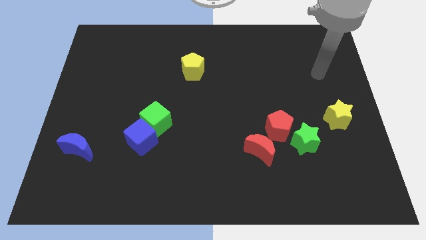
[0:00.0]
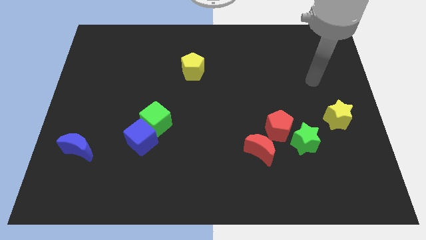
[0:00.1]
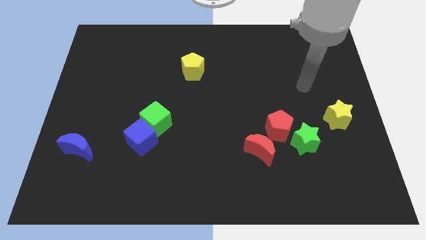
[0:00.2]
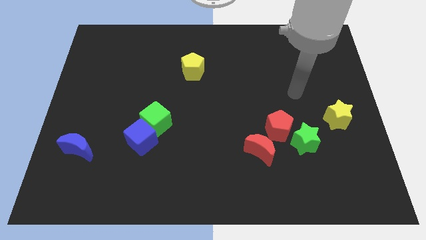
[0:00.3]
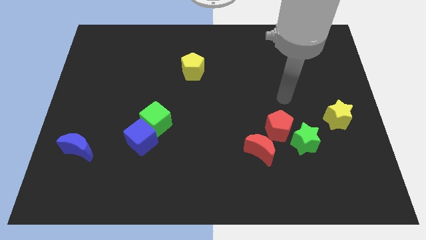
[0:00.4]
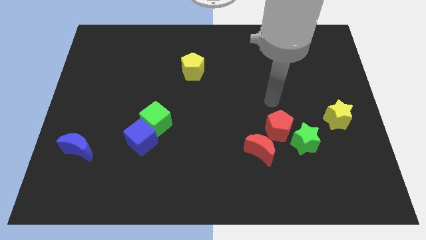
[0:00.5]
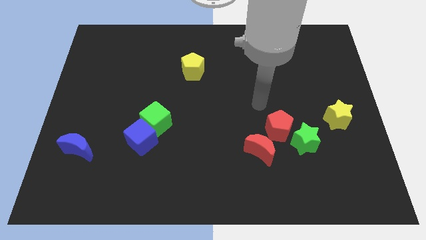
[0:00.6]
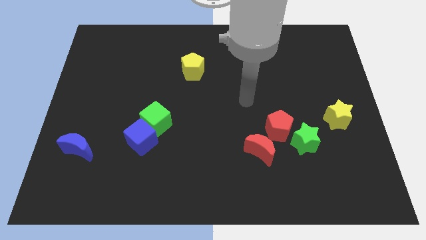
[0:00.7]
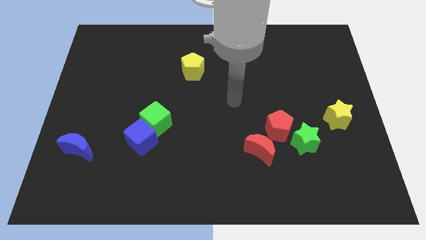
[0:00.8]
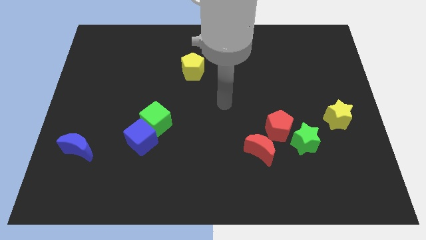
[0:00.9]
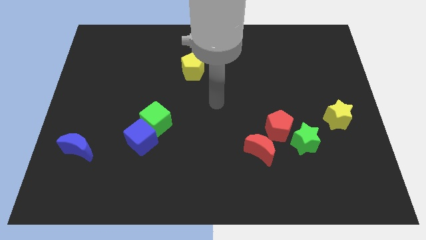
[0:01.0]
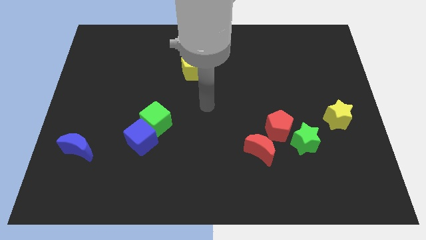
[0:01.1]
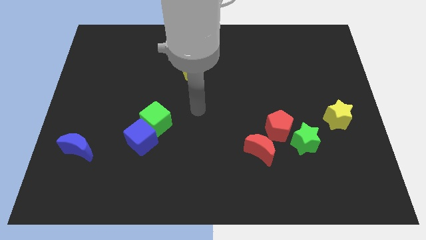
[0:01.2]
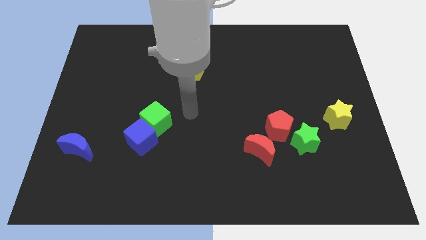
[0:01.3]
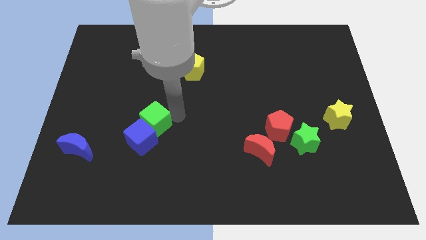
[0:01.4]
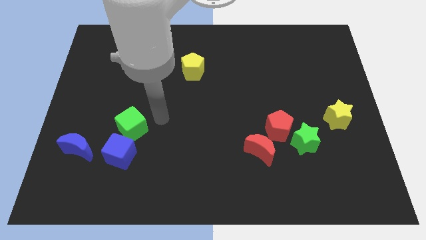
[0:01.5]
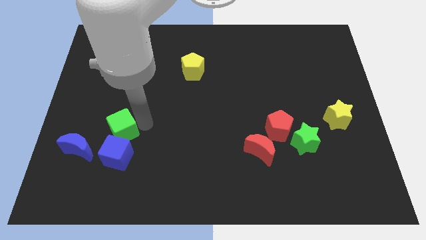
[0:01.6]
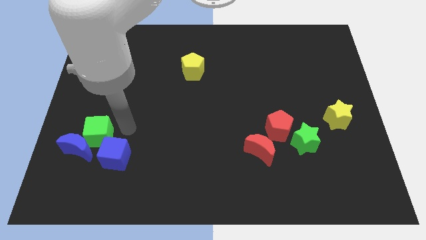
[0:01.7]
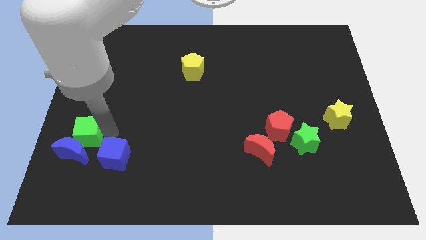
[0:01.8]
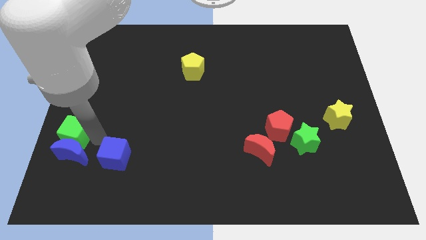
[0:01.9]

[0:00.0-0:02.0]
separate the blue cube from the green cube

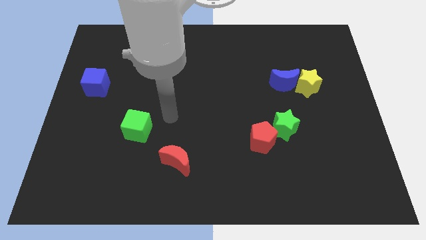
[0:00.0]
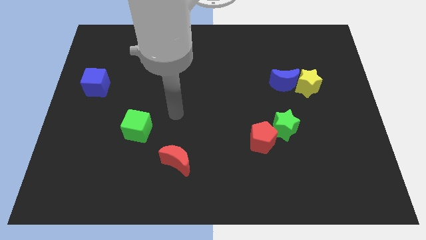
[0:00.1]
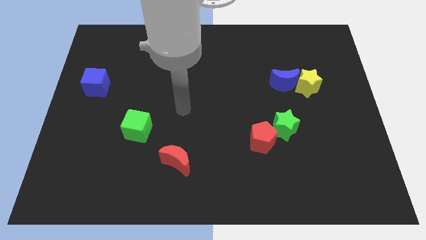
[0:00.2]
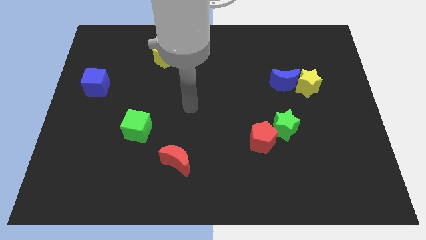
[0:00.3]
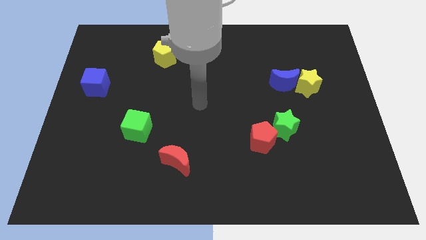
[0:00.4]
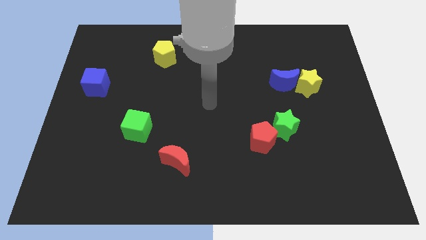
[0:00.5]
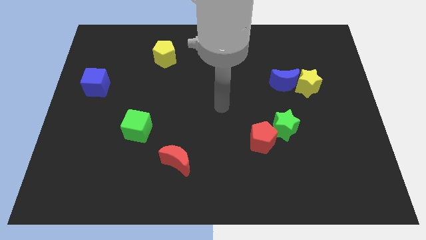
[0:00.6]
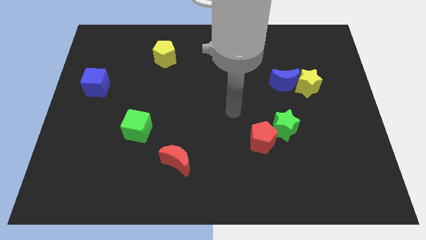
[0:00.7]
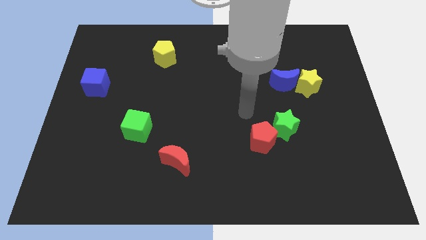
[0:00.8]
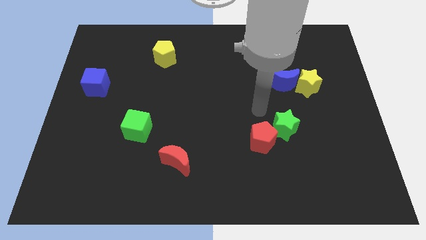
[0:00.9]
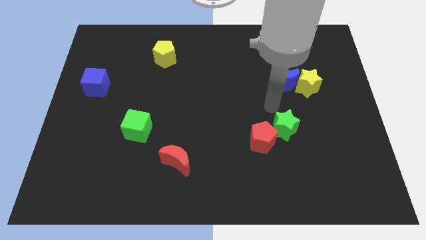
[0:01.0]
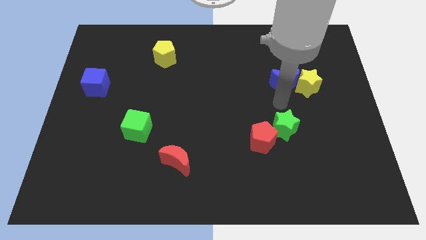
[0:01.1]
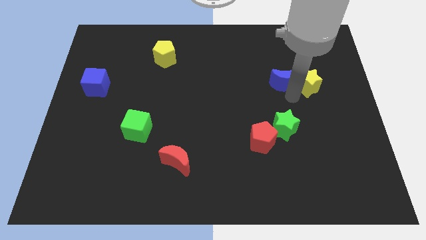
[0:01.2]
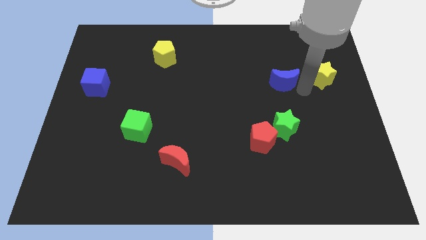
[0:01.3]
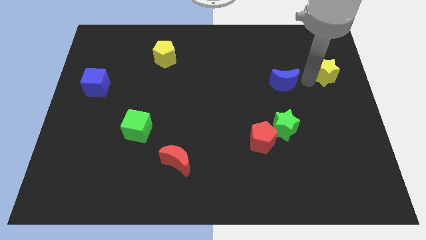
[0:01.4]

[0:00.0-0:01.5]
move the blue moon away from the yellow star

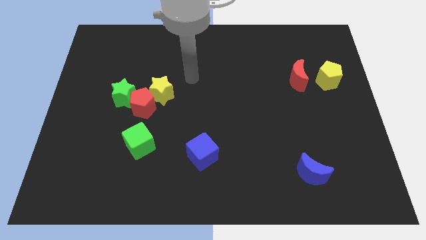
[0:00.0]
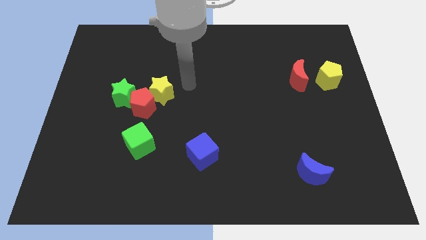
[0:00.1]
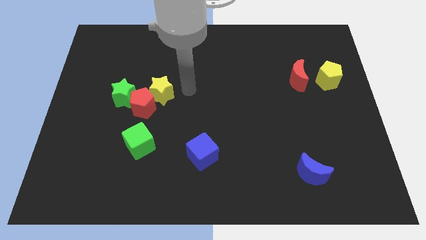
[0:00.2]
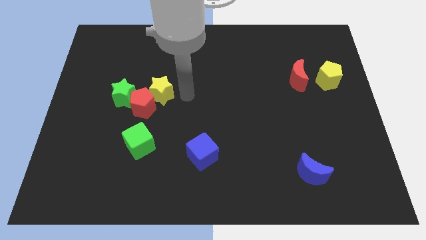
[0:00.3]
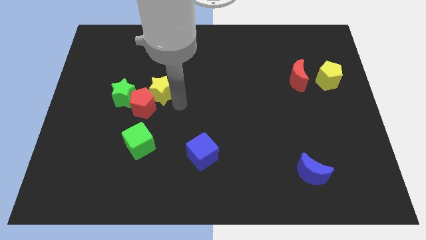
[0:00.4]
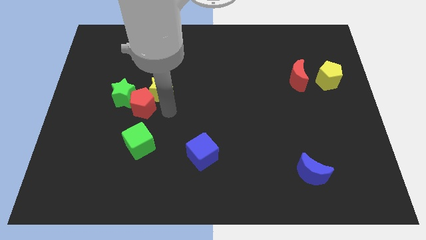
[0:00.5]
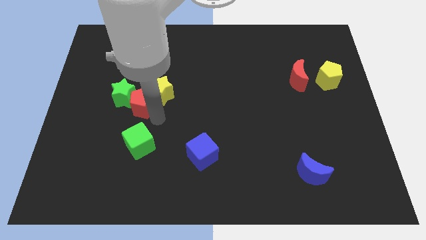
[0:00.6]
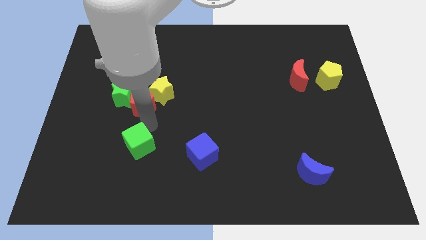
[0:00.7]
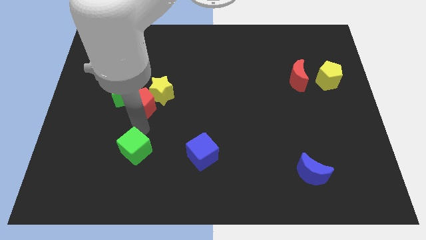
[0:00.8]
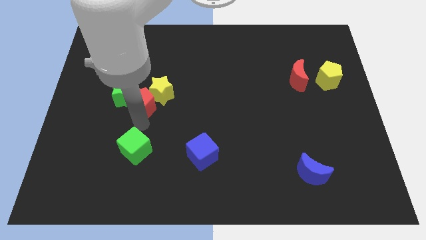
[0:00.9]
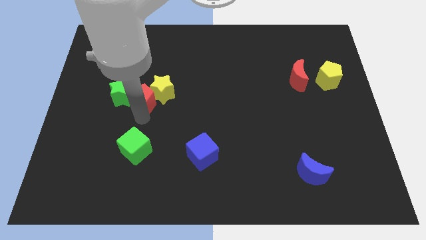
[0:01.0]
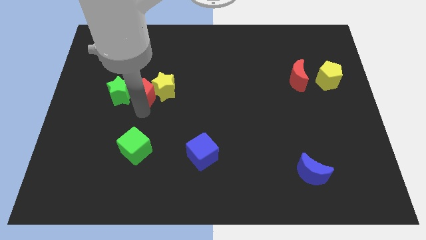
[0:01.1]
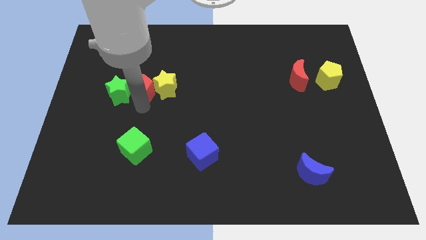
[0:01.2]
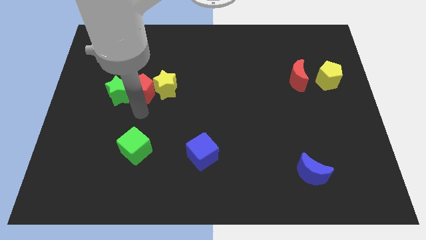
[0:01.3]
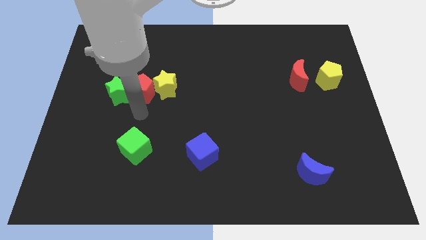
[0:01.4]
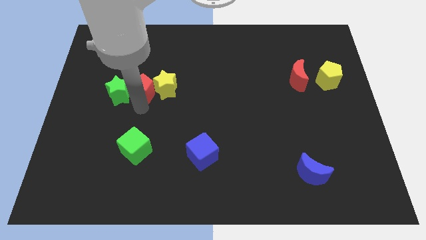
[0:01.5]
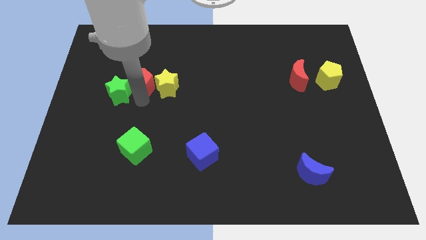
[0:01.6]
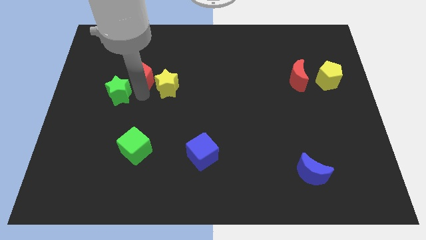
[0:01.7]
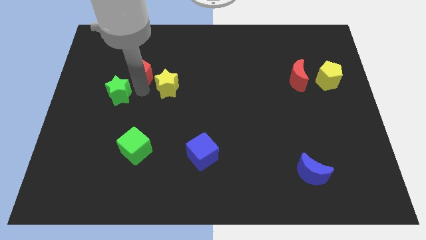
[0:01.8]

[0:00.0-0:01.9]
move the red pentagon away from the yellow star, green star, and green cube

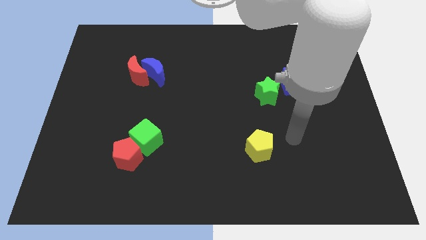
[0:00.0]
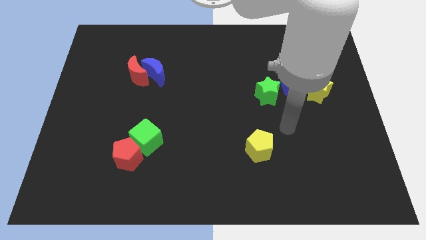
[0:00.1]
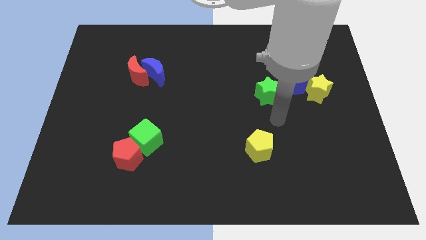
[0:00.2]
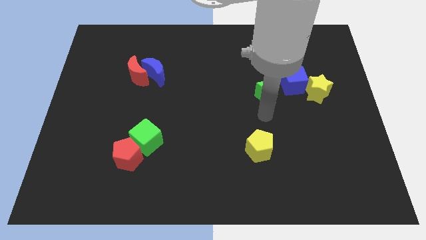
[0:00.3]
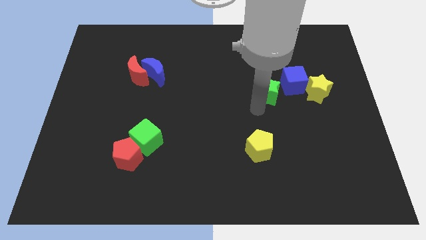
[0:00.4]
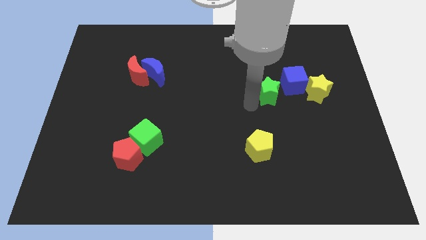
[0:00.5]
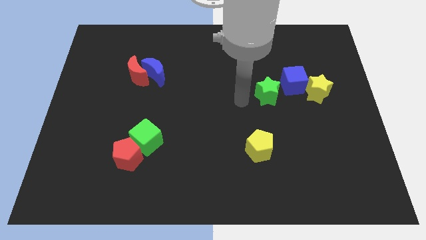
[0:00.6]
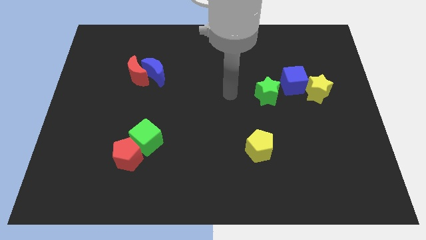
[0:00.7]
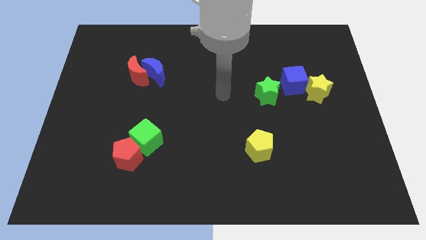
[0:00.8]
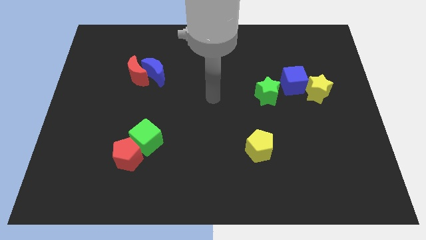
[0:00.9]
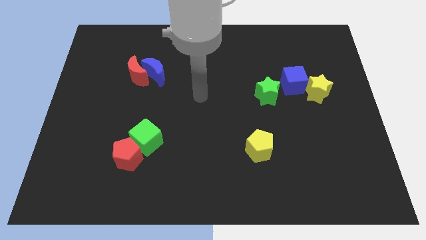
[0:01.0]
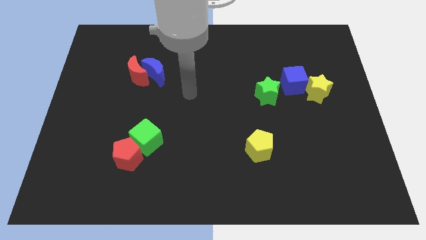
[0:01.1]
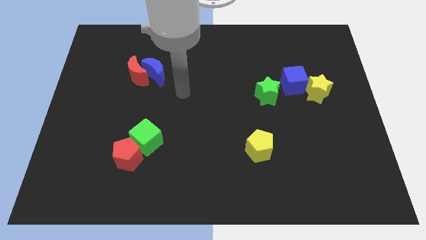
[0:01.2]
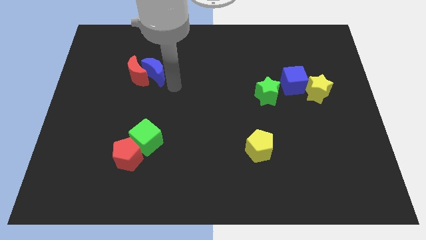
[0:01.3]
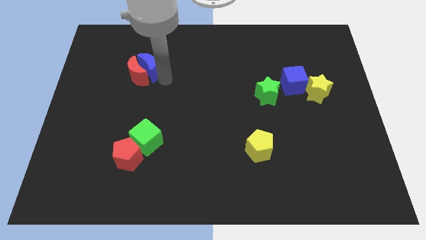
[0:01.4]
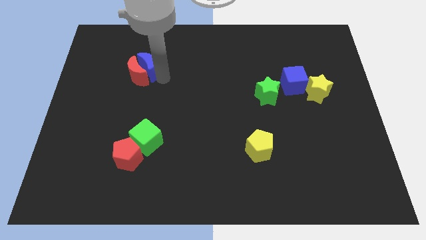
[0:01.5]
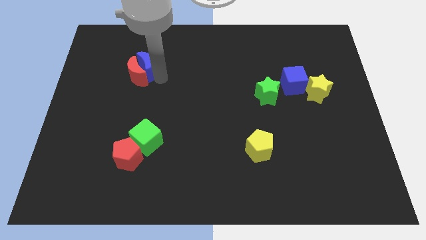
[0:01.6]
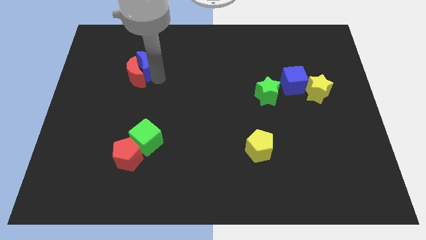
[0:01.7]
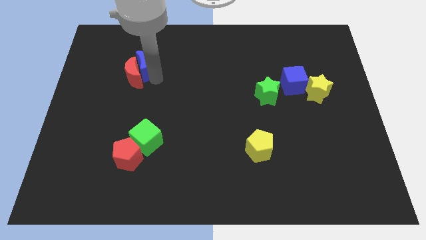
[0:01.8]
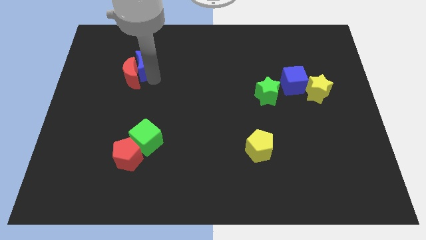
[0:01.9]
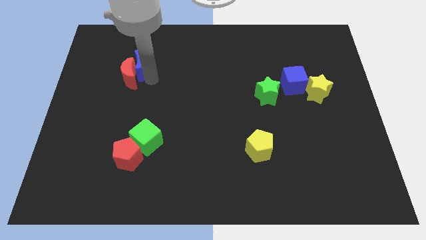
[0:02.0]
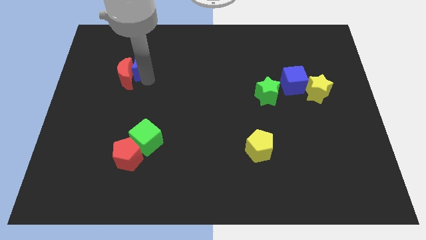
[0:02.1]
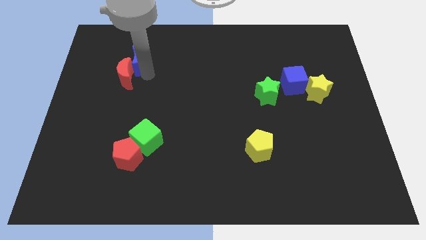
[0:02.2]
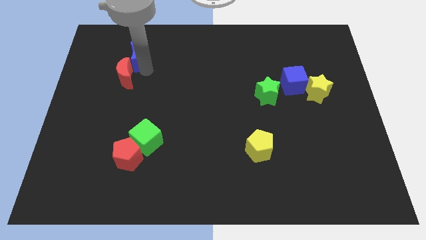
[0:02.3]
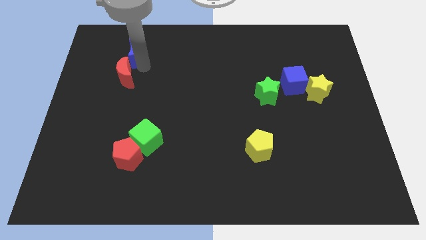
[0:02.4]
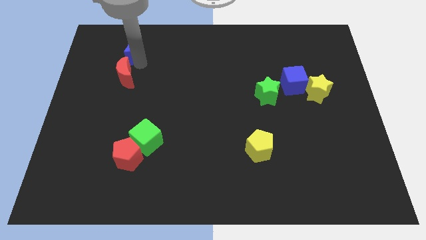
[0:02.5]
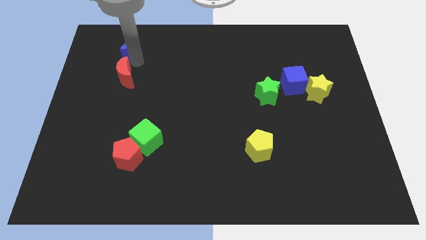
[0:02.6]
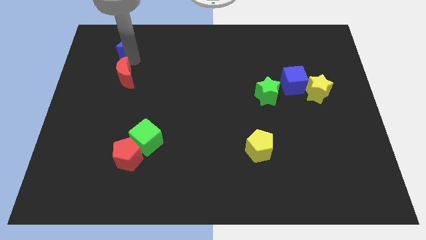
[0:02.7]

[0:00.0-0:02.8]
pull the red moon apart from the blue moon

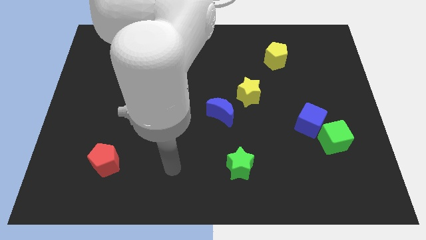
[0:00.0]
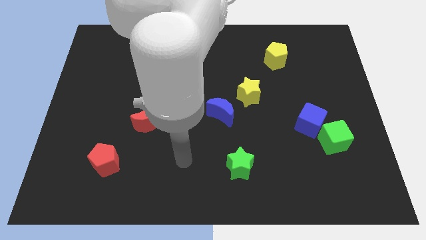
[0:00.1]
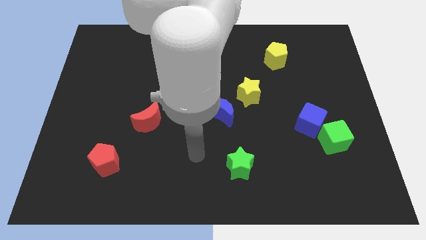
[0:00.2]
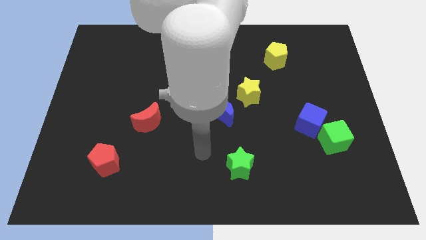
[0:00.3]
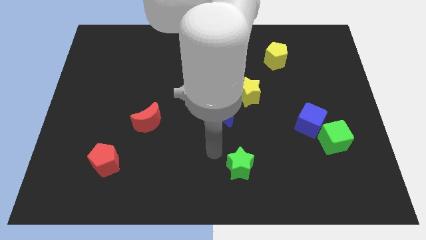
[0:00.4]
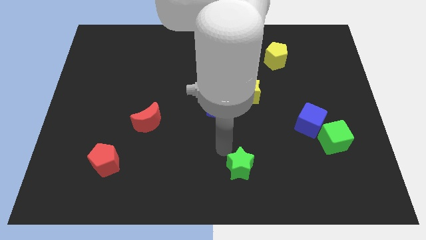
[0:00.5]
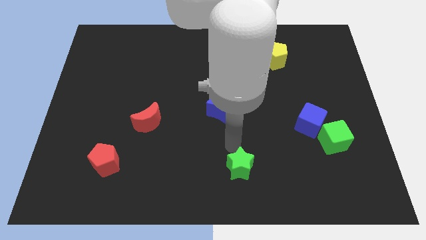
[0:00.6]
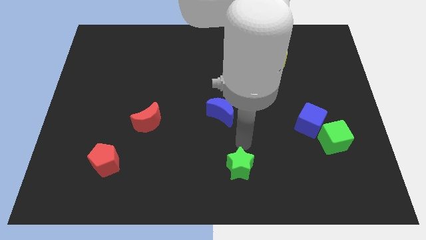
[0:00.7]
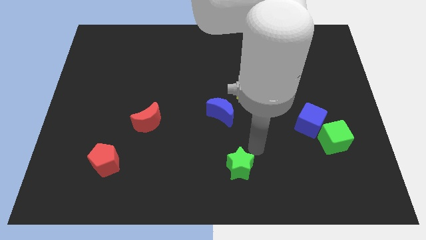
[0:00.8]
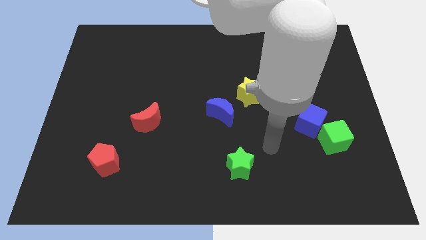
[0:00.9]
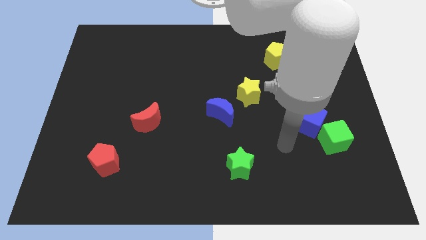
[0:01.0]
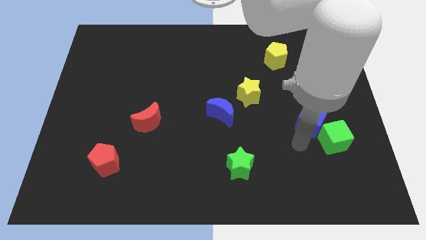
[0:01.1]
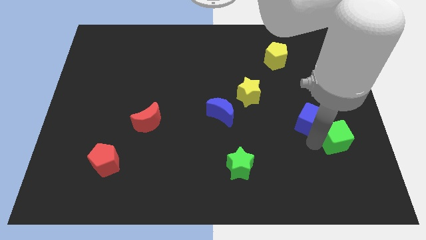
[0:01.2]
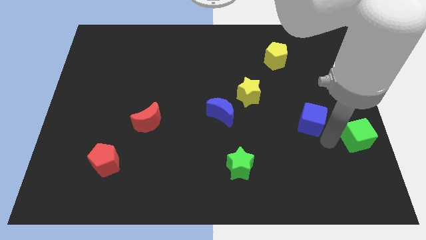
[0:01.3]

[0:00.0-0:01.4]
pull the blue cube apart from the green cube
